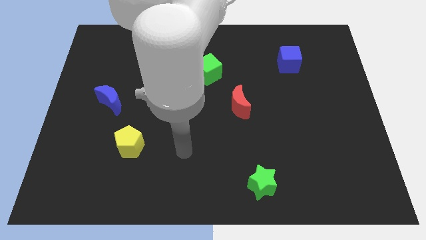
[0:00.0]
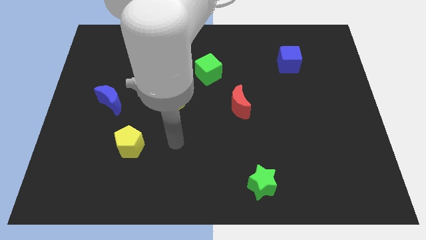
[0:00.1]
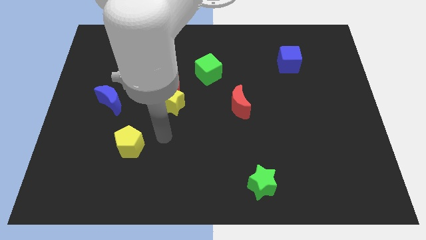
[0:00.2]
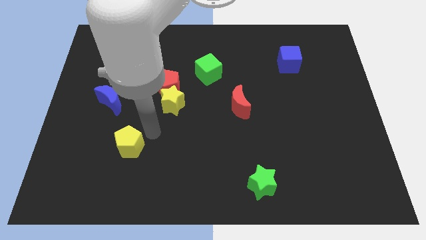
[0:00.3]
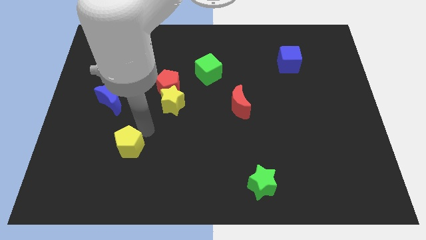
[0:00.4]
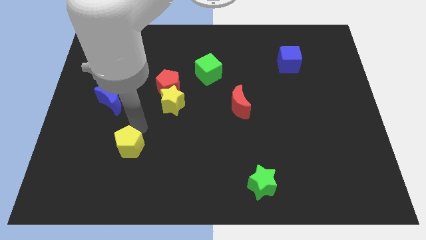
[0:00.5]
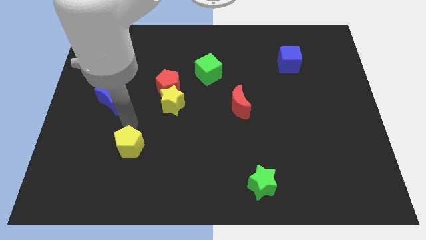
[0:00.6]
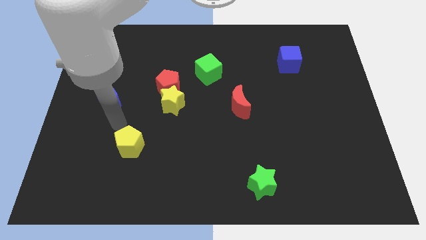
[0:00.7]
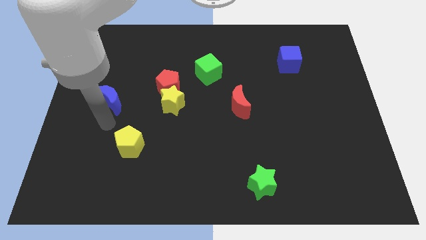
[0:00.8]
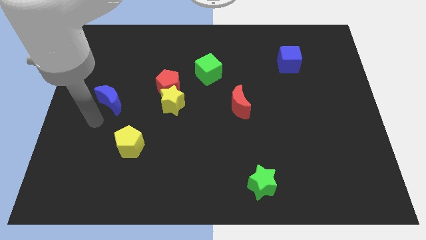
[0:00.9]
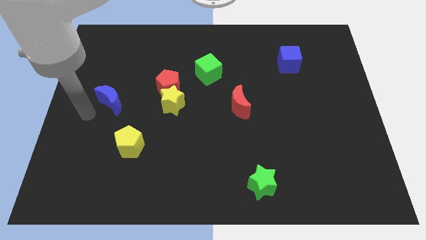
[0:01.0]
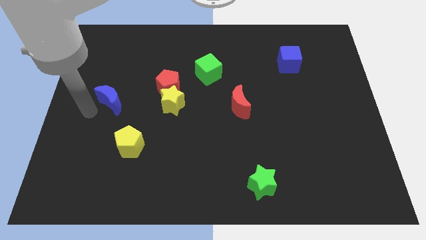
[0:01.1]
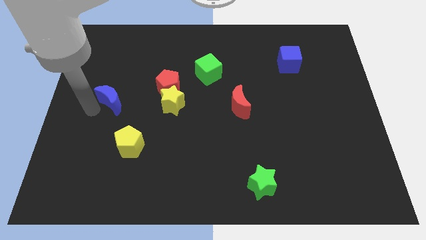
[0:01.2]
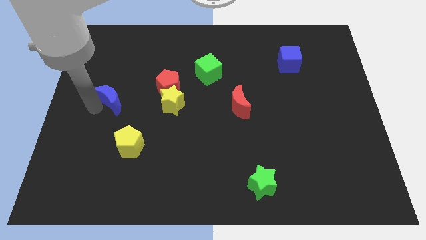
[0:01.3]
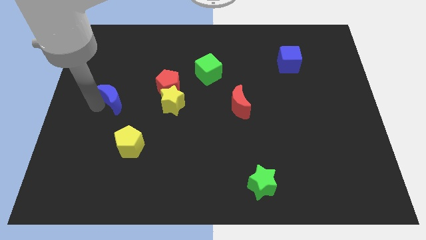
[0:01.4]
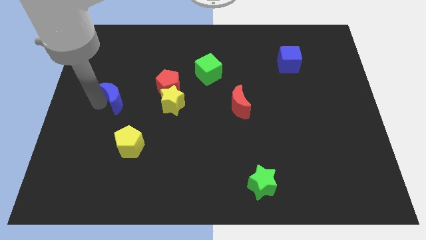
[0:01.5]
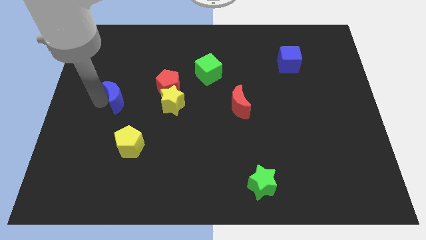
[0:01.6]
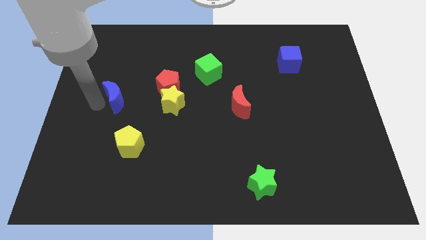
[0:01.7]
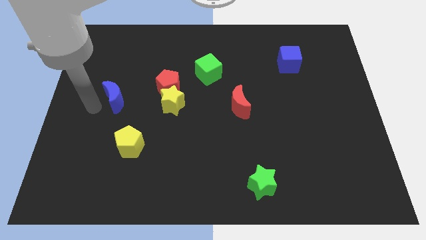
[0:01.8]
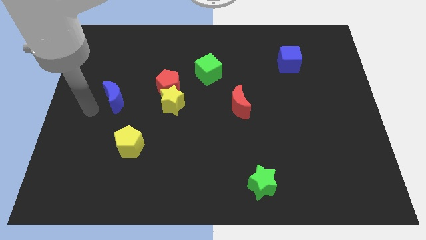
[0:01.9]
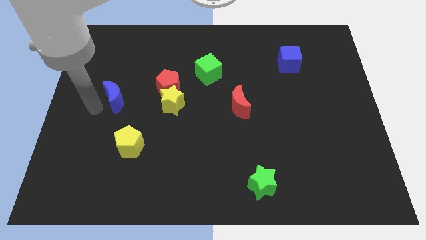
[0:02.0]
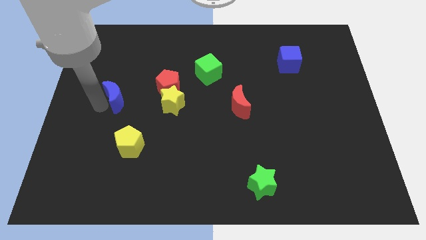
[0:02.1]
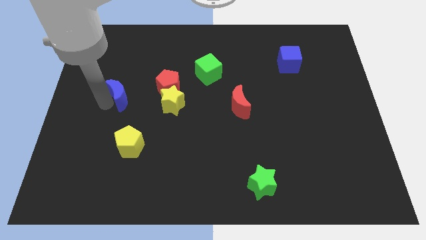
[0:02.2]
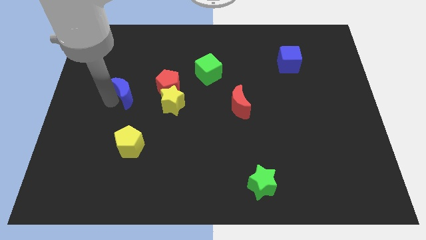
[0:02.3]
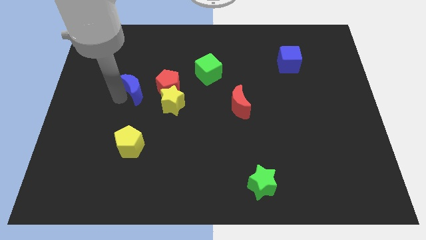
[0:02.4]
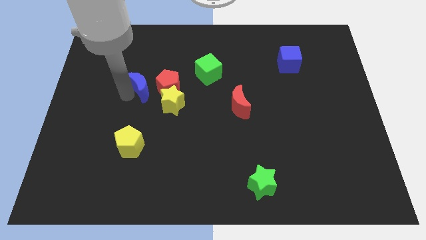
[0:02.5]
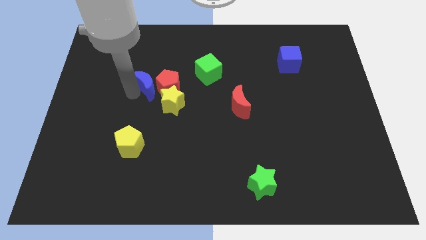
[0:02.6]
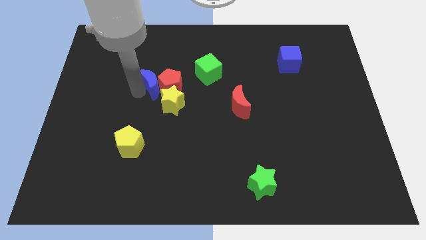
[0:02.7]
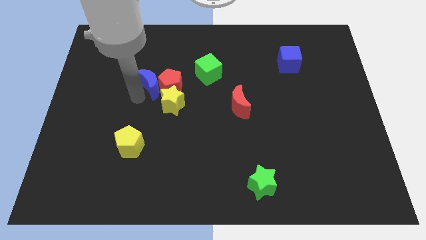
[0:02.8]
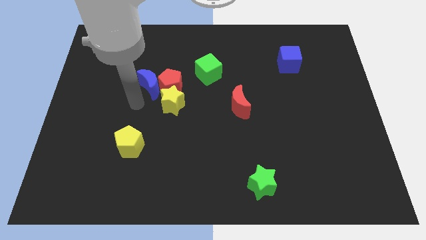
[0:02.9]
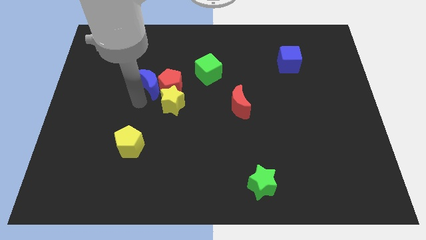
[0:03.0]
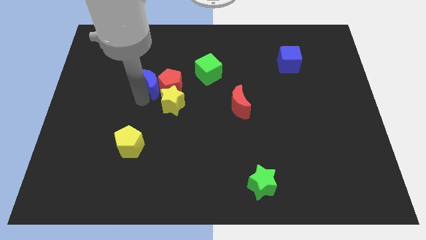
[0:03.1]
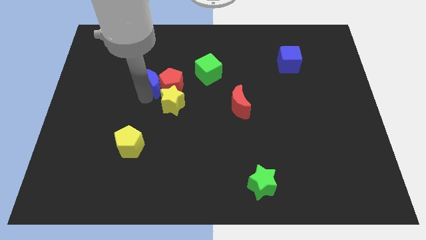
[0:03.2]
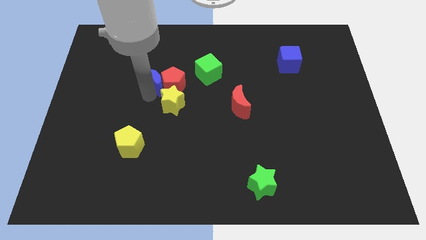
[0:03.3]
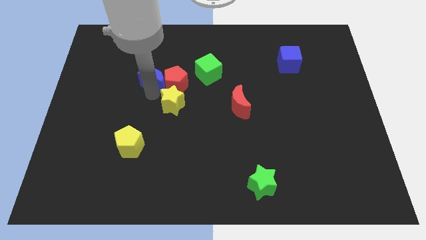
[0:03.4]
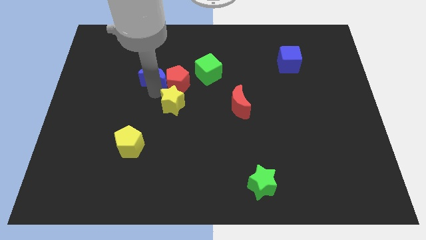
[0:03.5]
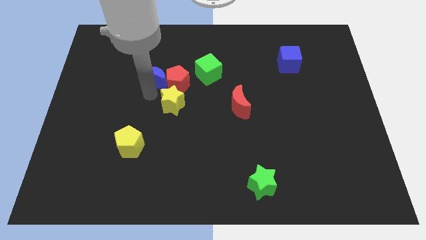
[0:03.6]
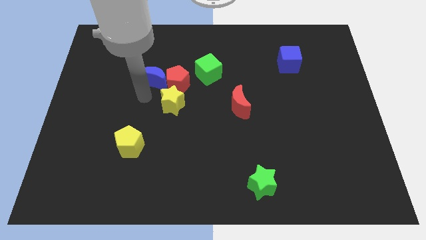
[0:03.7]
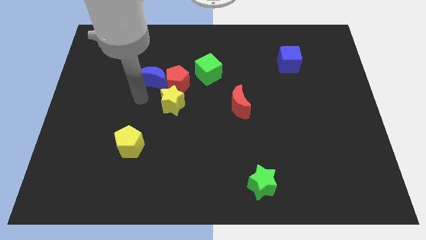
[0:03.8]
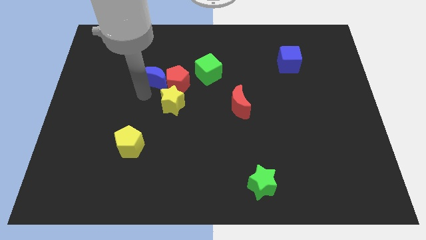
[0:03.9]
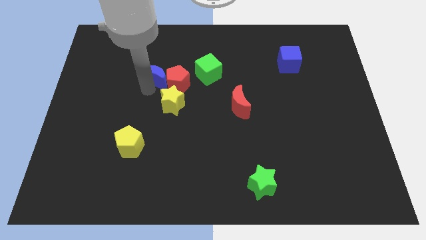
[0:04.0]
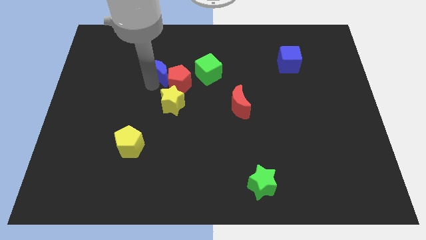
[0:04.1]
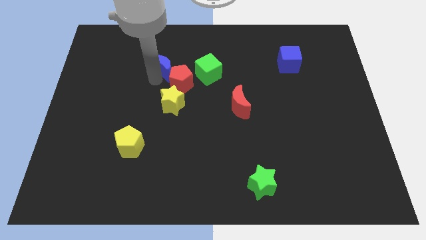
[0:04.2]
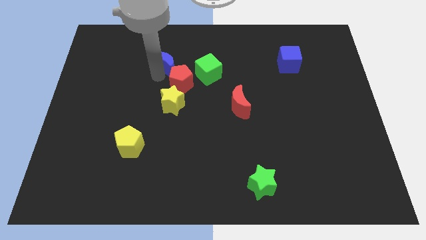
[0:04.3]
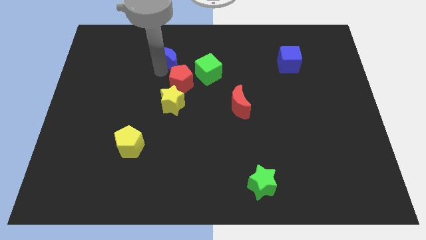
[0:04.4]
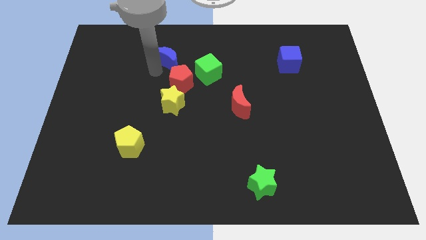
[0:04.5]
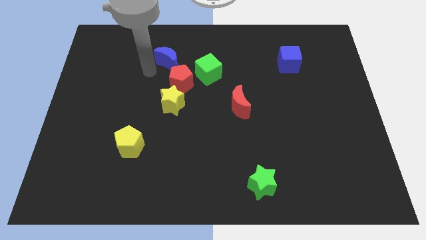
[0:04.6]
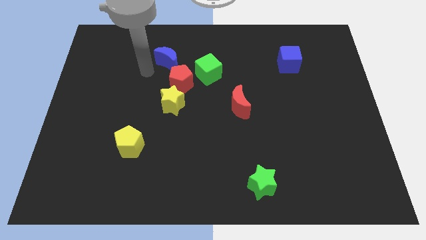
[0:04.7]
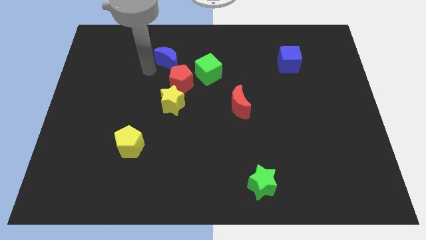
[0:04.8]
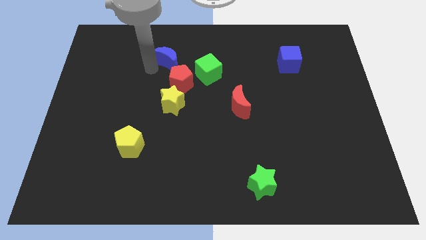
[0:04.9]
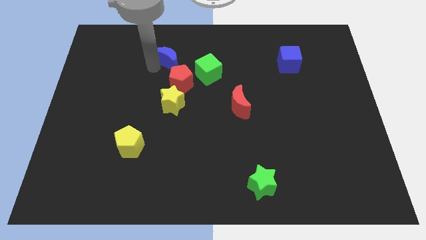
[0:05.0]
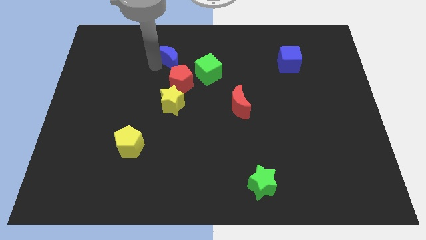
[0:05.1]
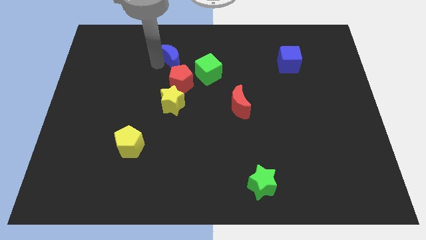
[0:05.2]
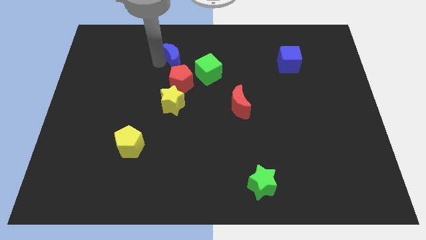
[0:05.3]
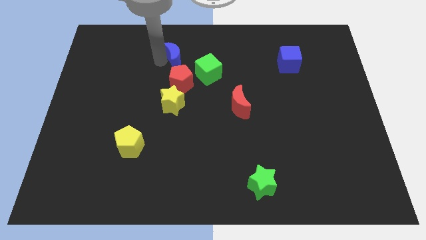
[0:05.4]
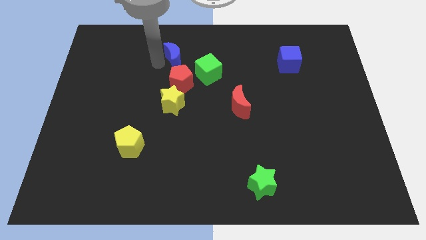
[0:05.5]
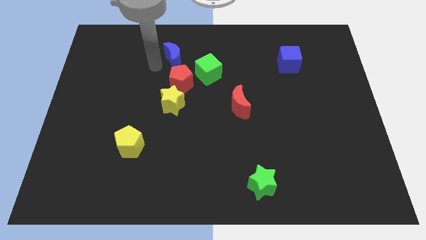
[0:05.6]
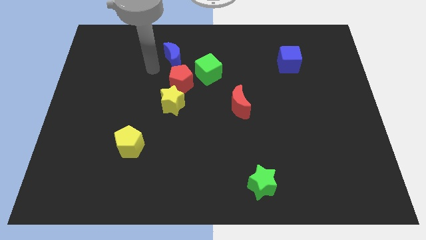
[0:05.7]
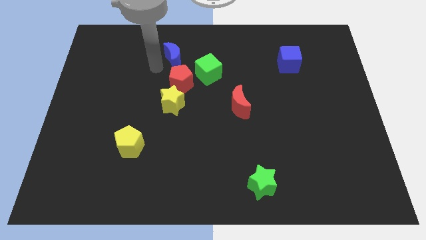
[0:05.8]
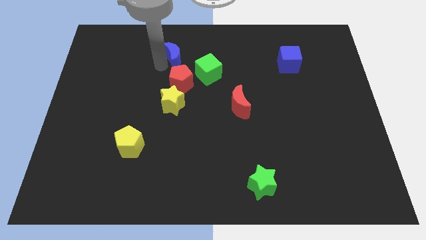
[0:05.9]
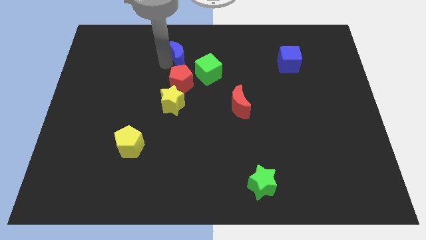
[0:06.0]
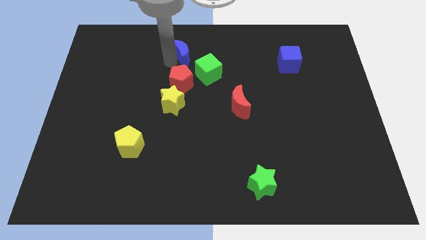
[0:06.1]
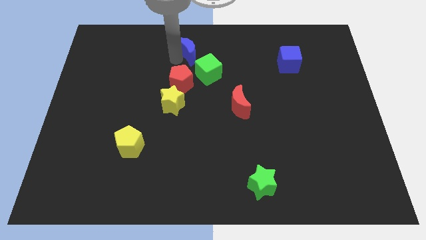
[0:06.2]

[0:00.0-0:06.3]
move the blue moon to the top side

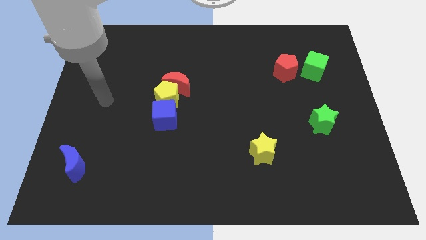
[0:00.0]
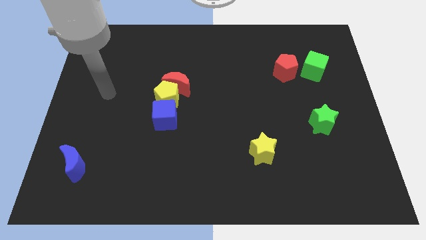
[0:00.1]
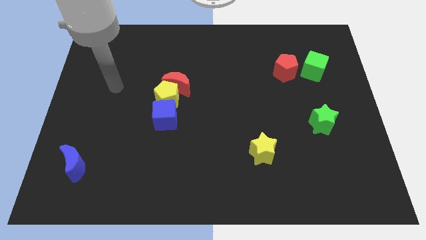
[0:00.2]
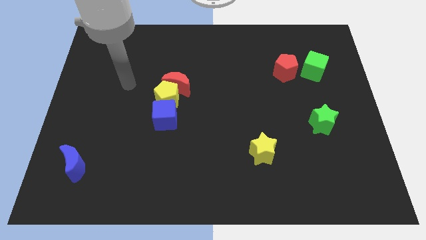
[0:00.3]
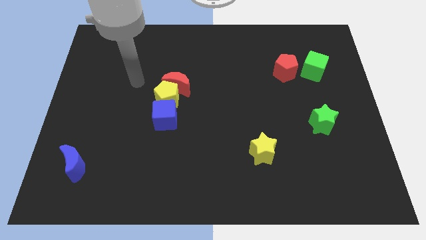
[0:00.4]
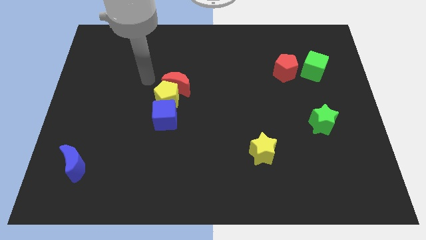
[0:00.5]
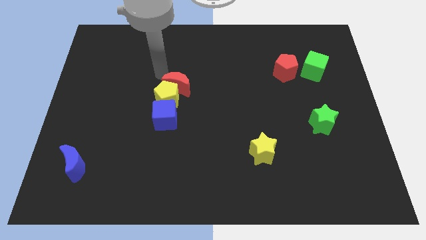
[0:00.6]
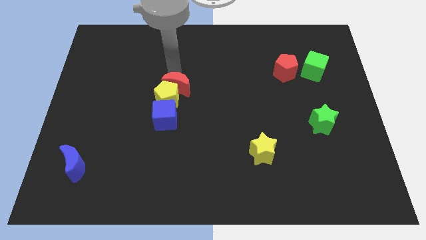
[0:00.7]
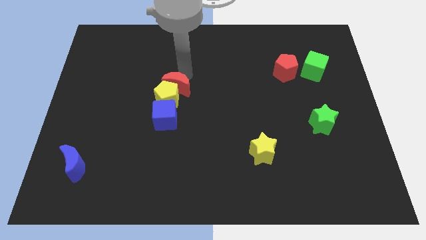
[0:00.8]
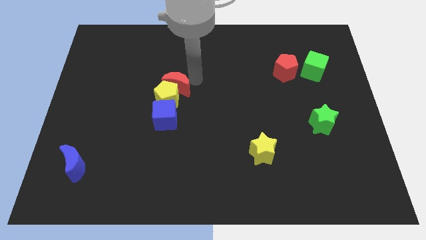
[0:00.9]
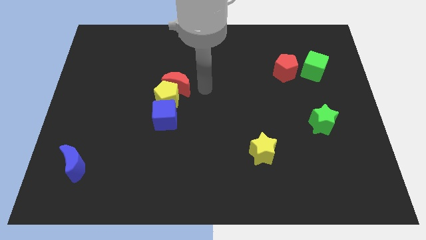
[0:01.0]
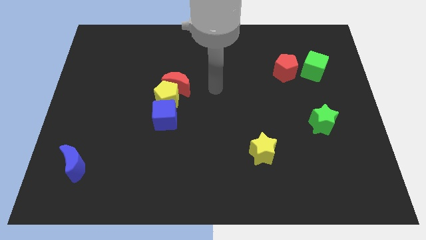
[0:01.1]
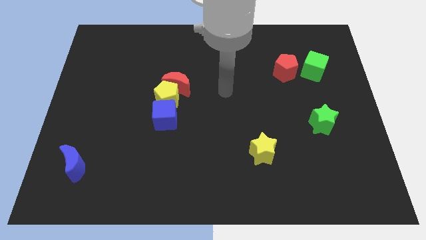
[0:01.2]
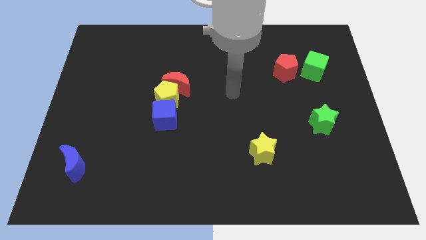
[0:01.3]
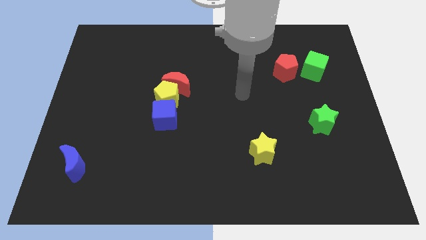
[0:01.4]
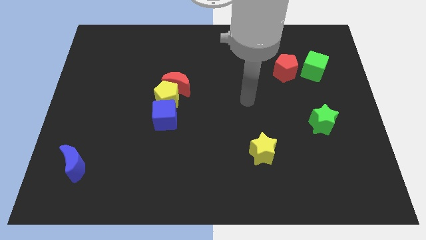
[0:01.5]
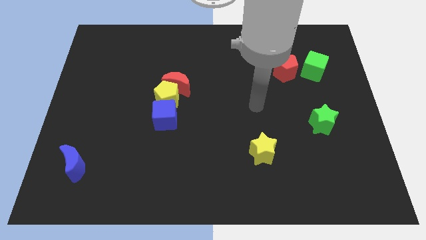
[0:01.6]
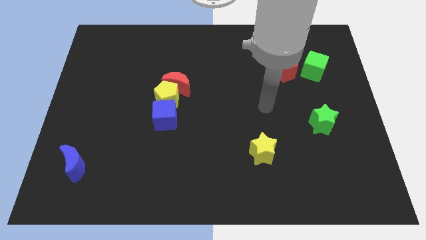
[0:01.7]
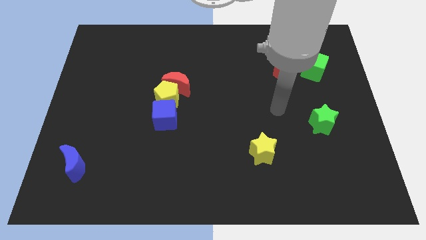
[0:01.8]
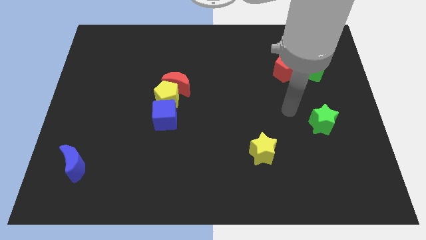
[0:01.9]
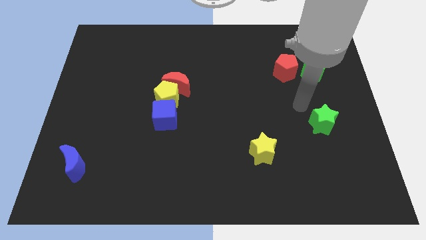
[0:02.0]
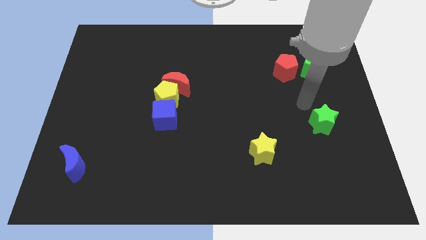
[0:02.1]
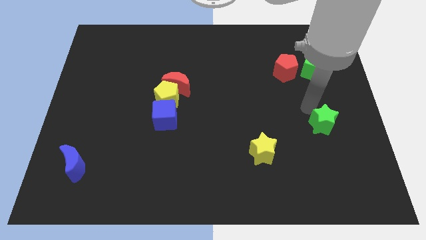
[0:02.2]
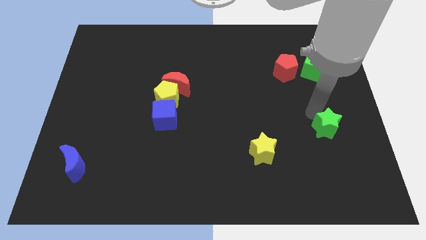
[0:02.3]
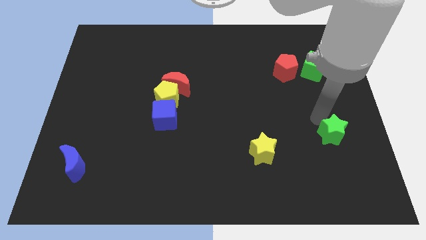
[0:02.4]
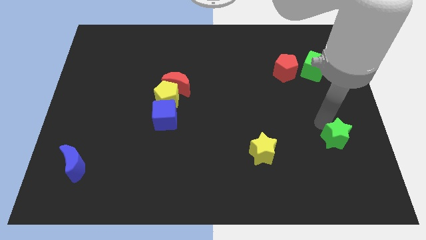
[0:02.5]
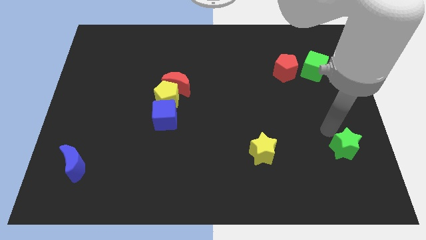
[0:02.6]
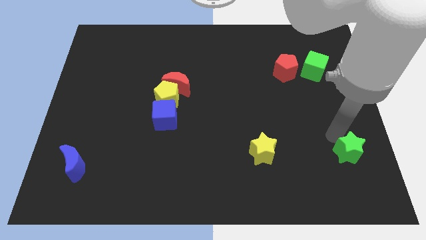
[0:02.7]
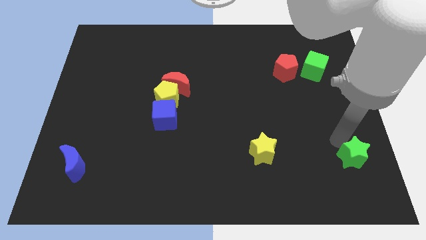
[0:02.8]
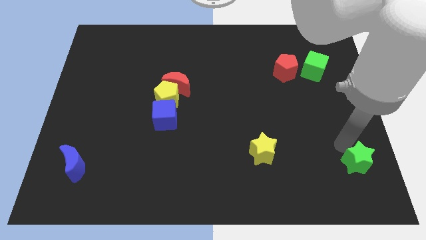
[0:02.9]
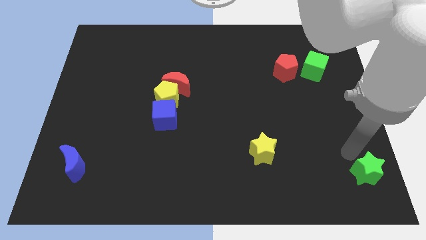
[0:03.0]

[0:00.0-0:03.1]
move the green star to the lower right corner
